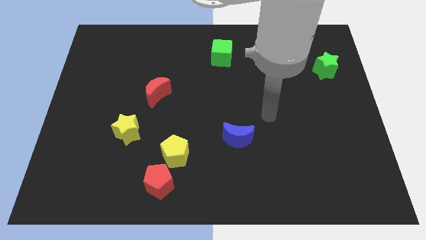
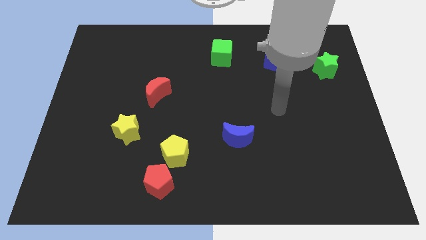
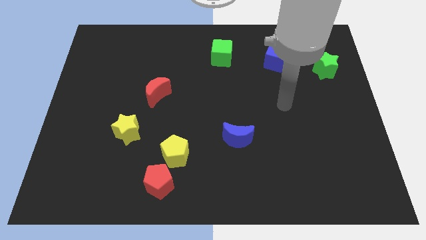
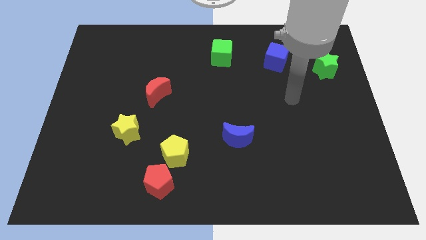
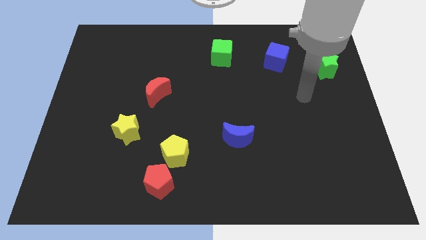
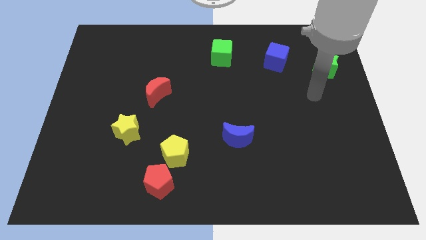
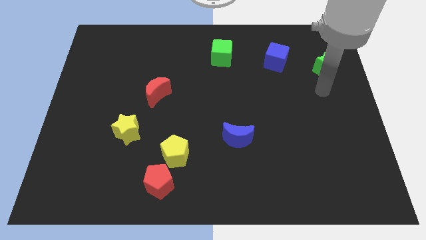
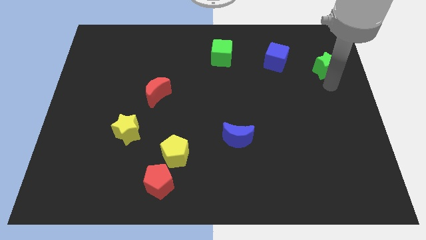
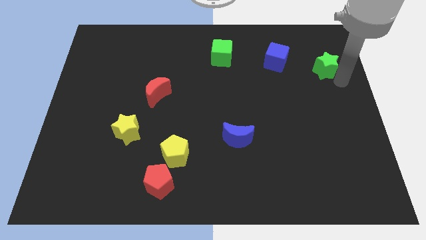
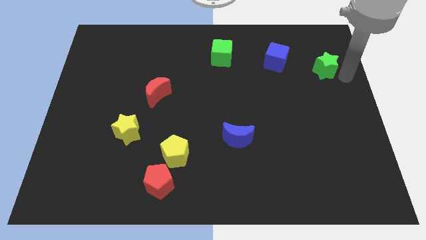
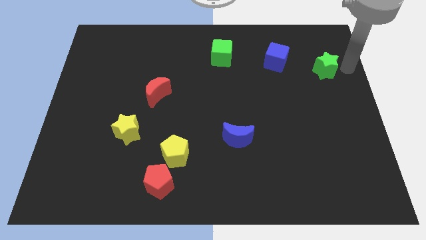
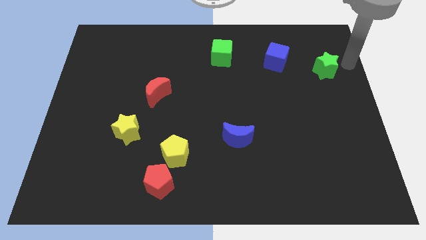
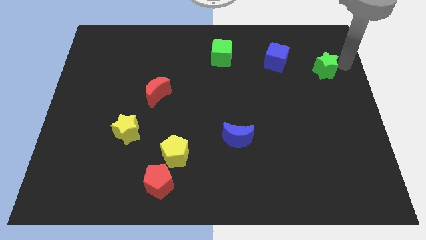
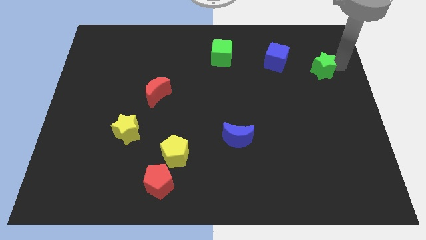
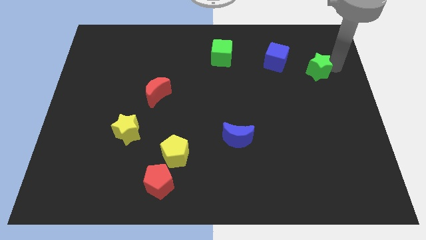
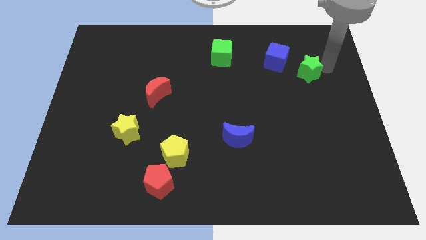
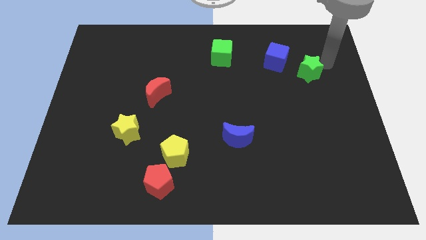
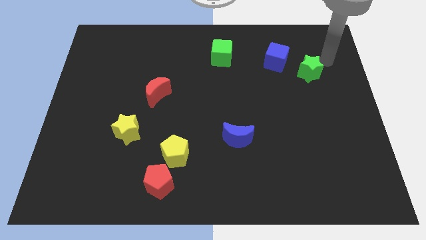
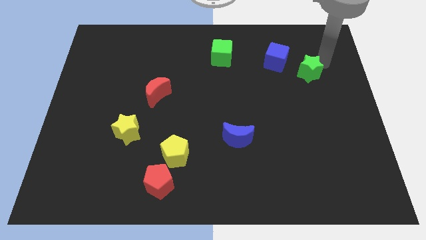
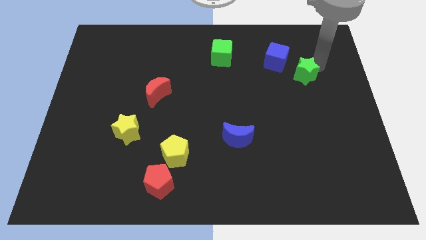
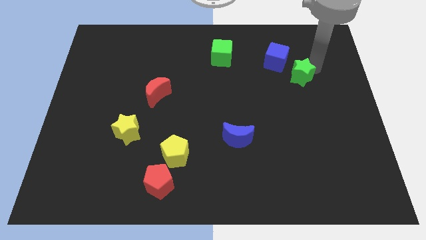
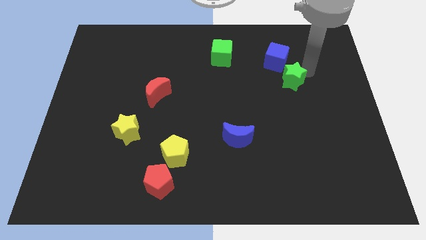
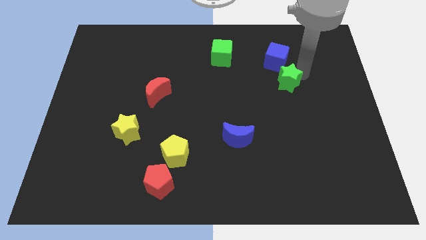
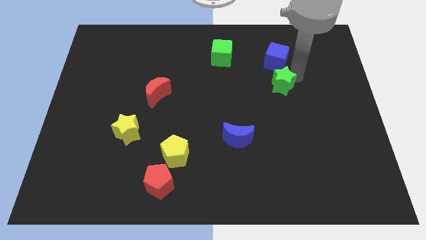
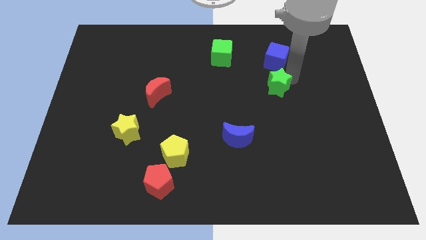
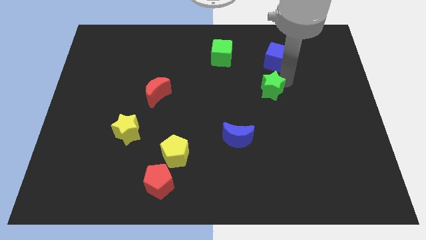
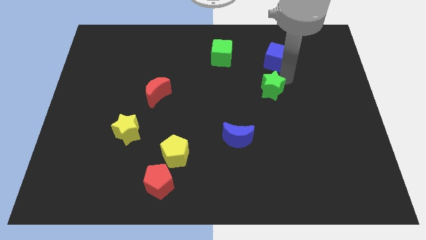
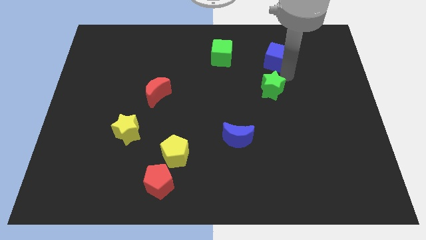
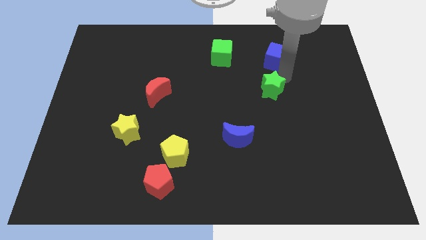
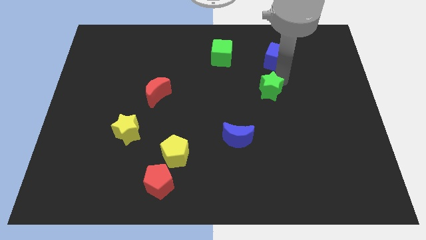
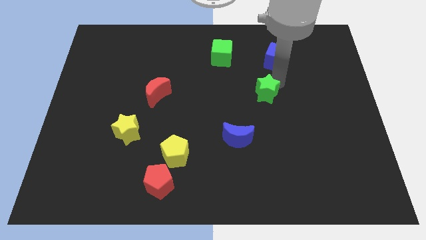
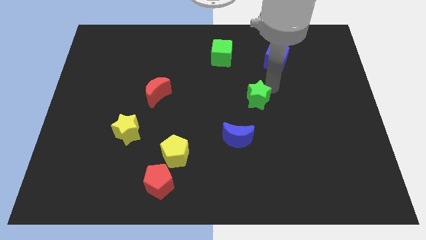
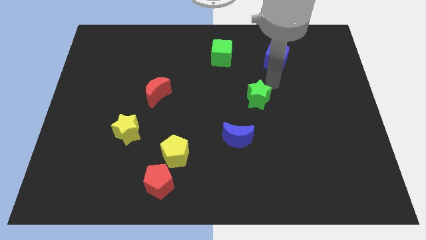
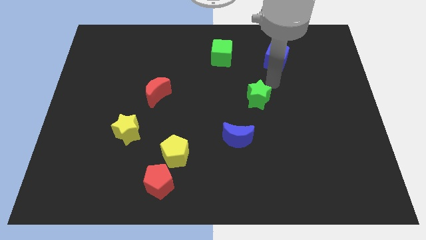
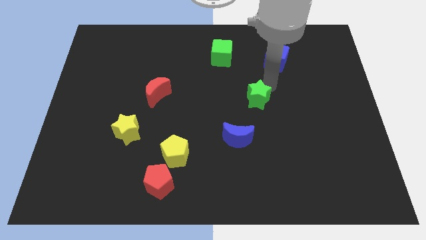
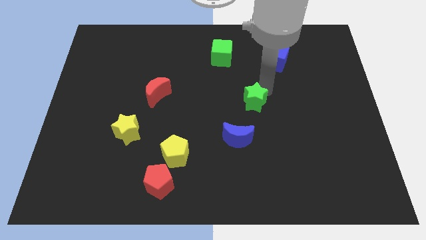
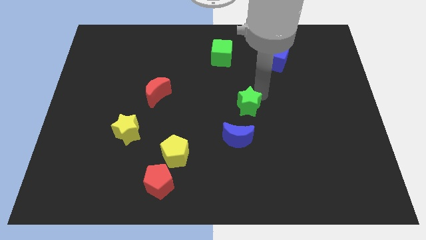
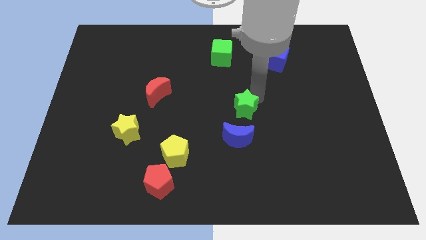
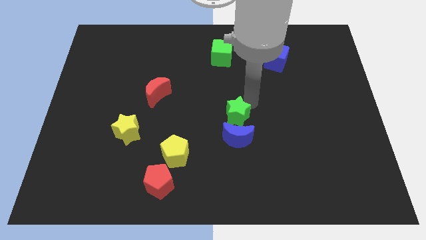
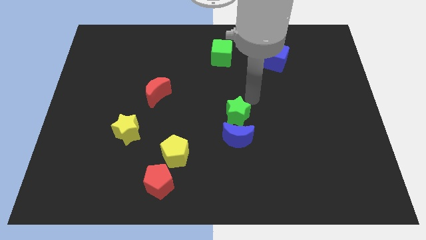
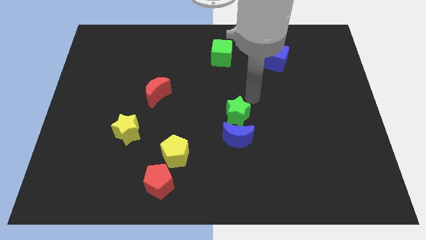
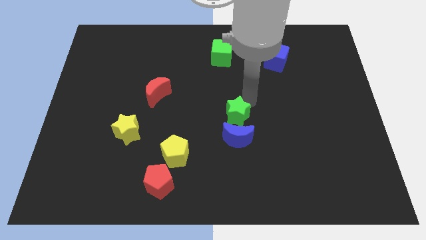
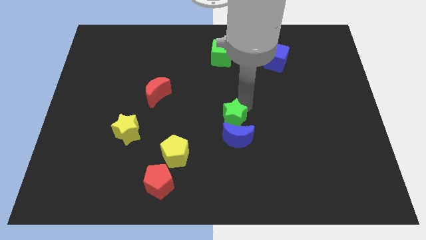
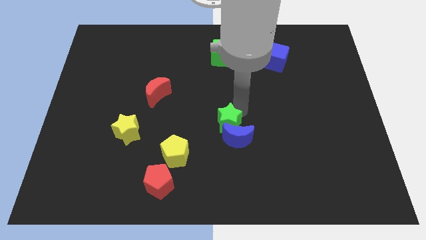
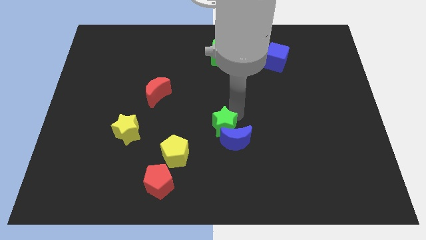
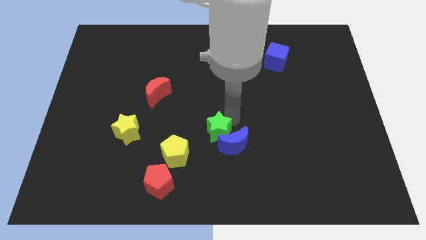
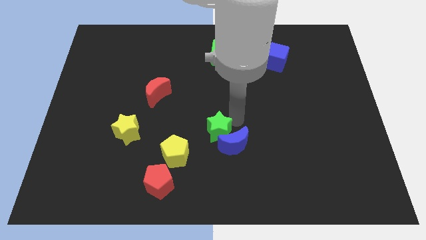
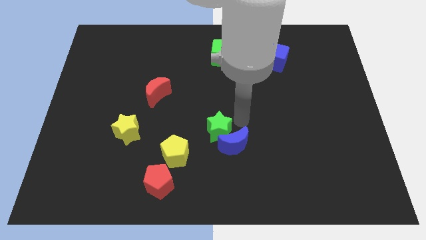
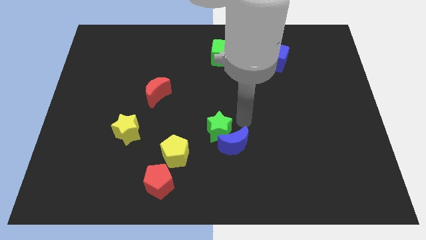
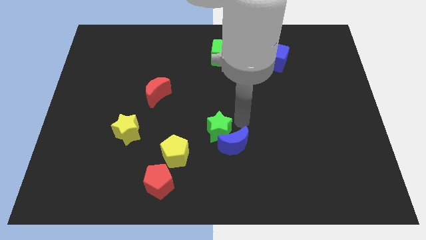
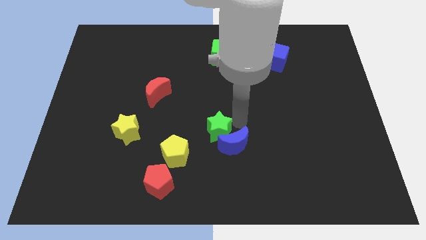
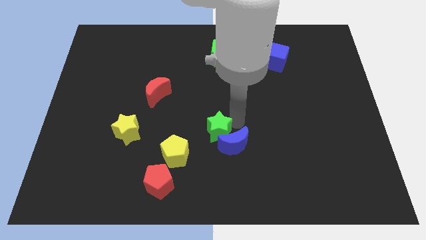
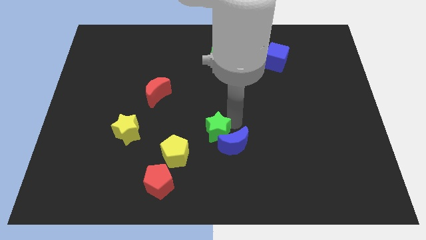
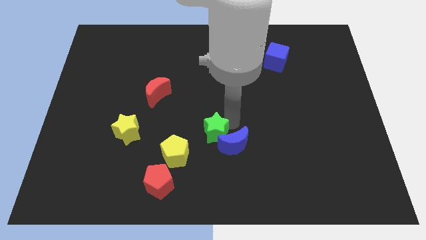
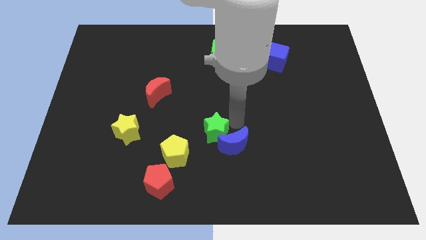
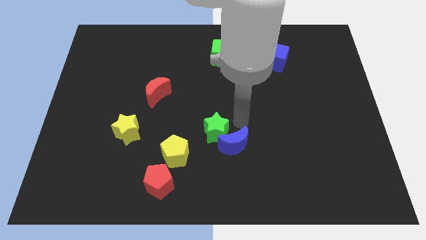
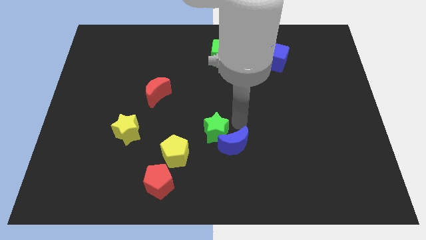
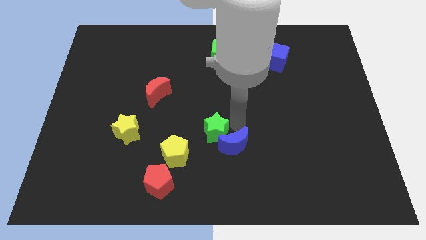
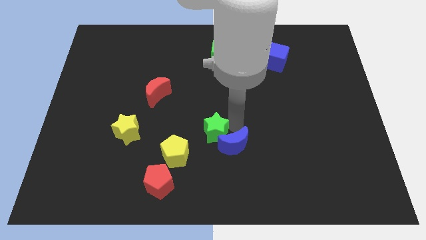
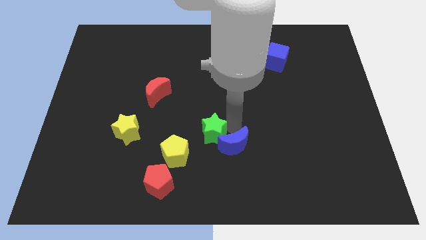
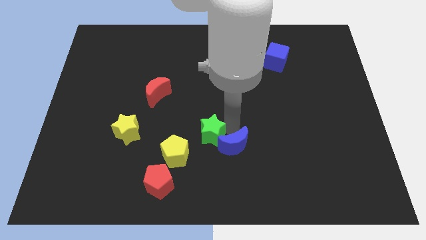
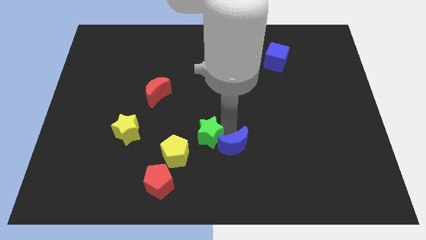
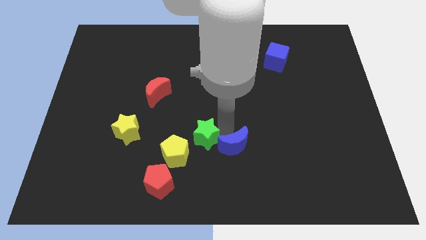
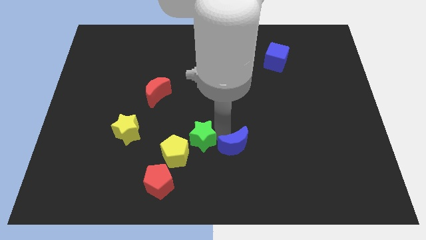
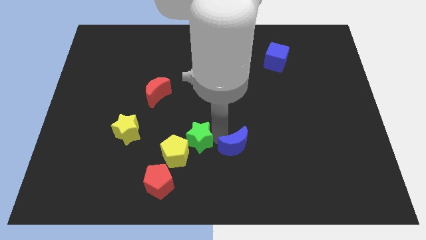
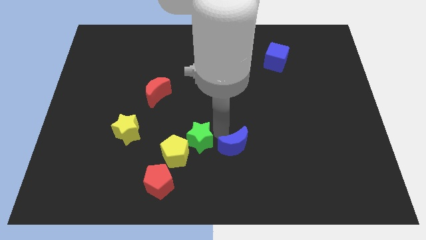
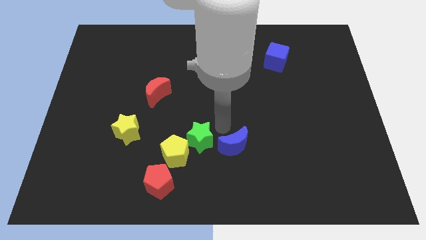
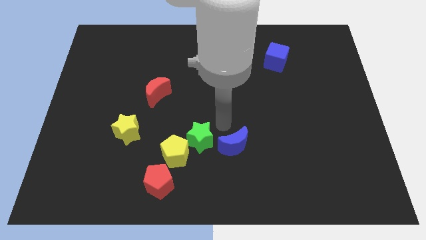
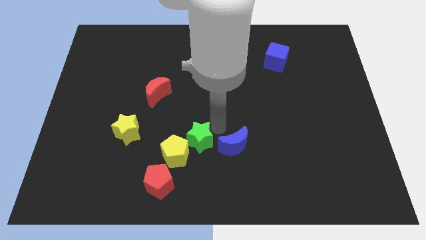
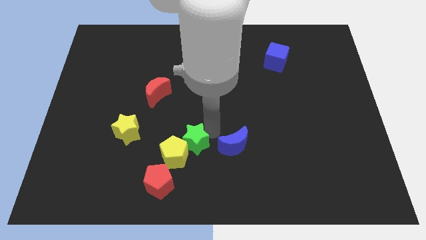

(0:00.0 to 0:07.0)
slide the green star to the yellow pentagon

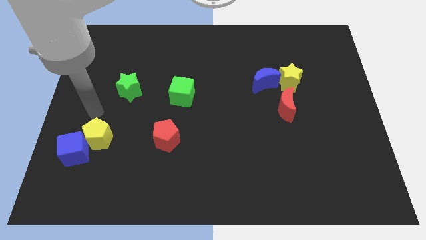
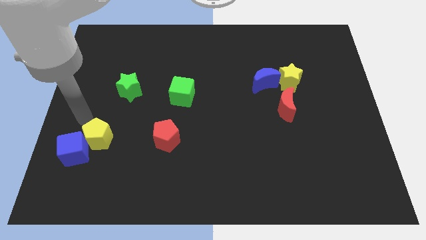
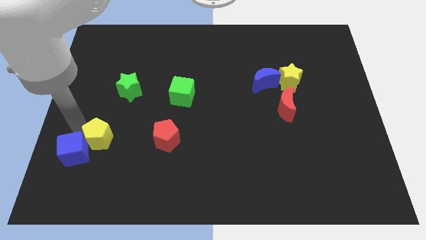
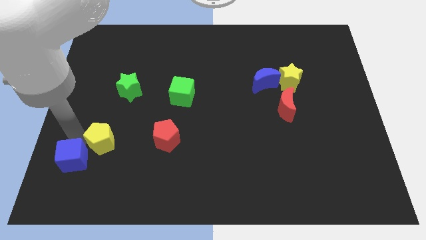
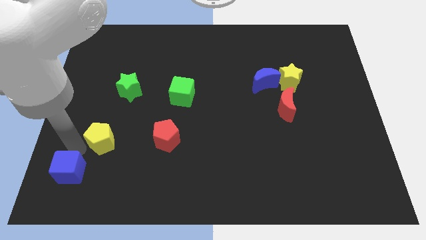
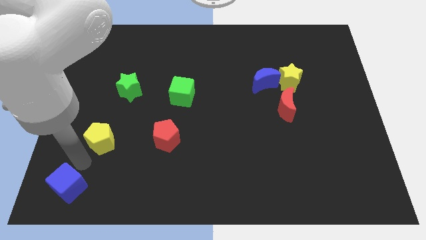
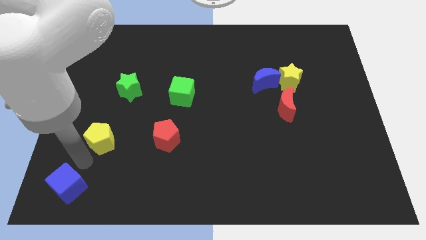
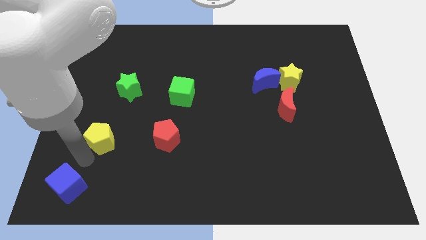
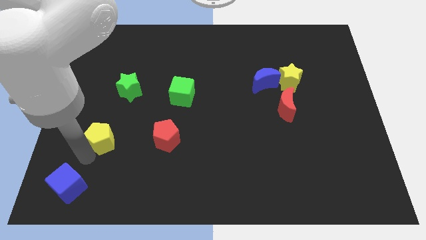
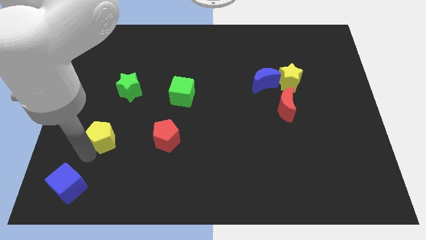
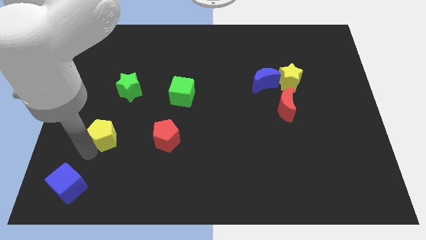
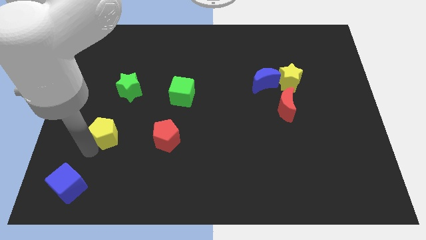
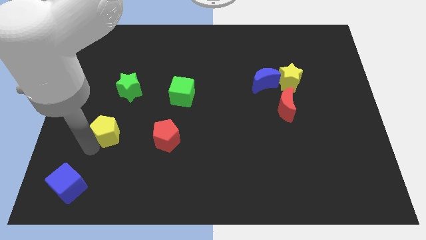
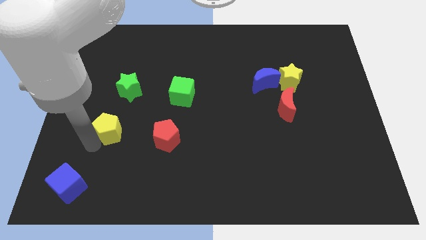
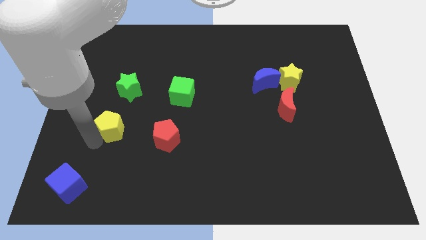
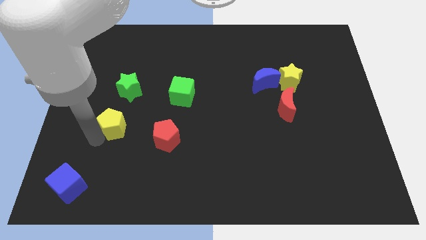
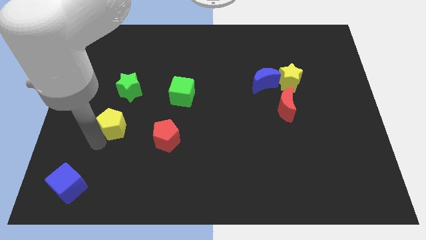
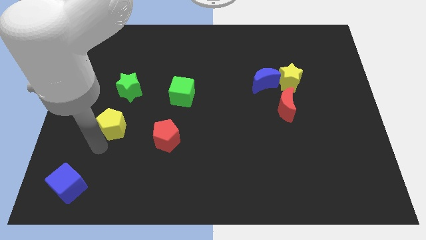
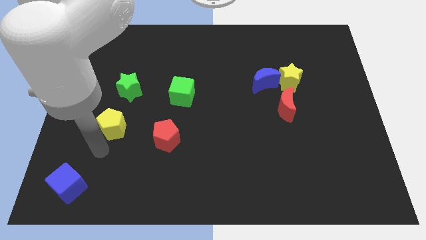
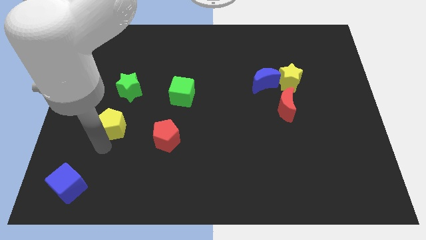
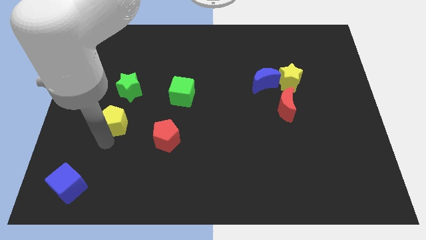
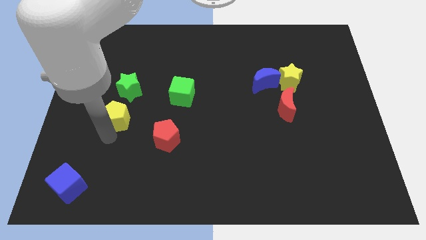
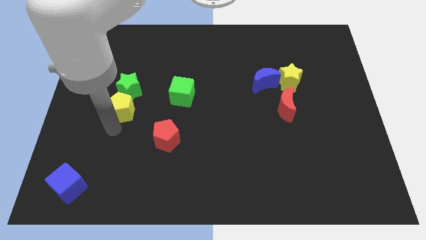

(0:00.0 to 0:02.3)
put the yellow pentagon close to the green star
